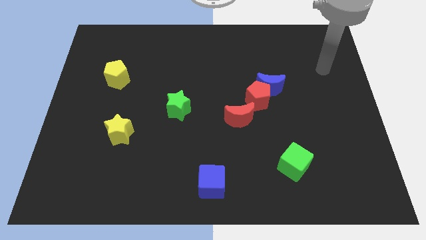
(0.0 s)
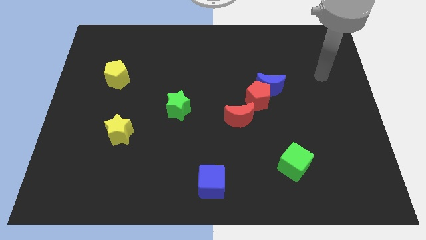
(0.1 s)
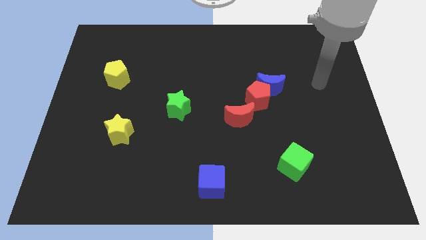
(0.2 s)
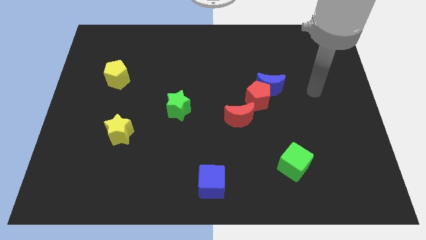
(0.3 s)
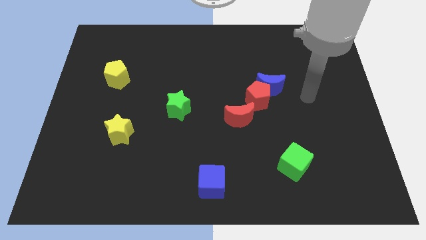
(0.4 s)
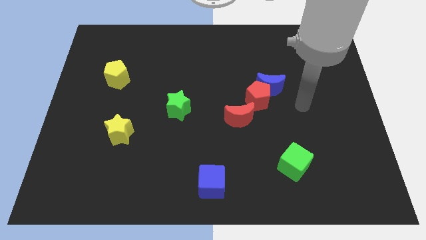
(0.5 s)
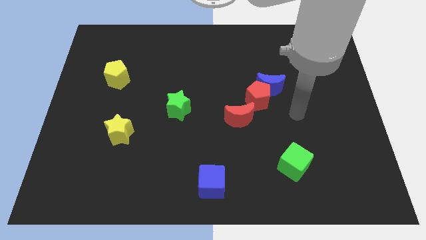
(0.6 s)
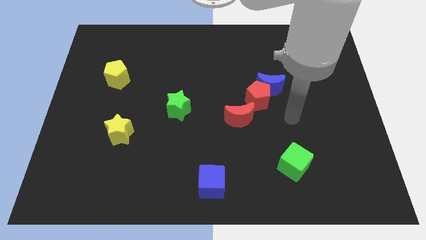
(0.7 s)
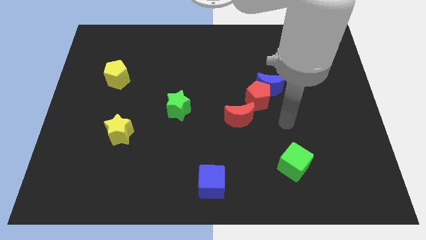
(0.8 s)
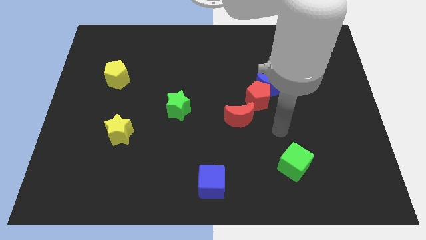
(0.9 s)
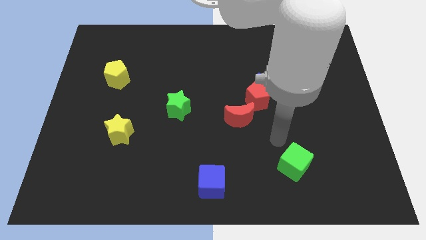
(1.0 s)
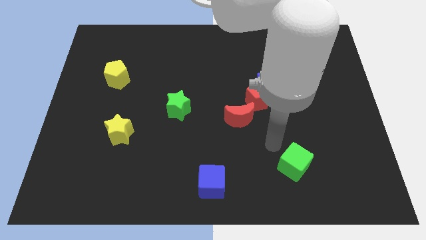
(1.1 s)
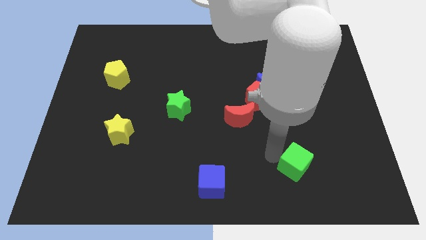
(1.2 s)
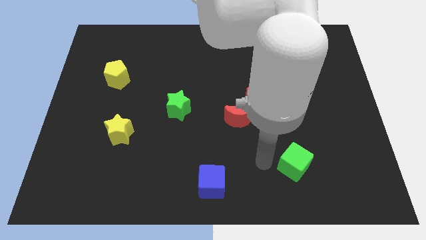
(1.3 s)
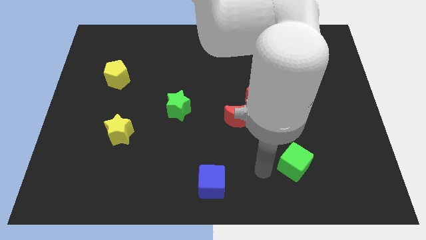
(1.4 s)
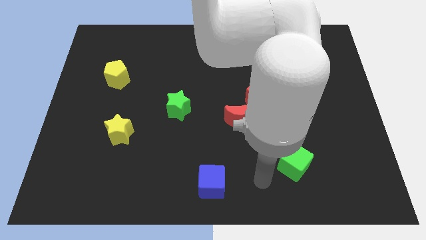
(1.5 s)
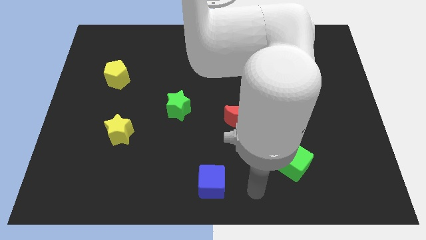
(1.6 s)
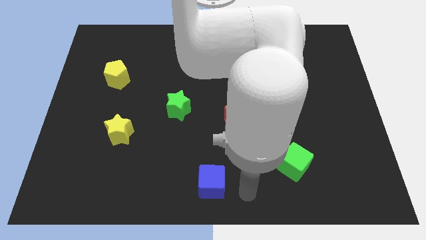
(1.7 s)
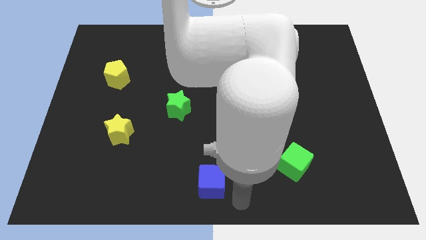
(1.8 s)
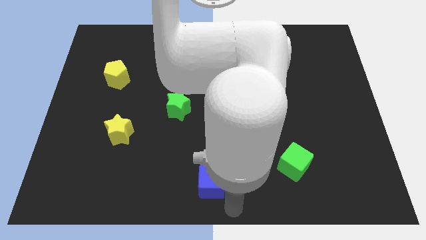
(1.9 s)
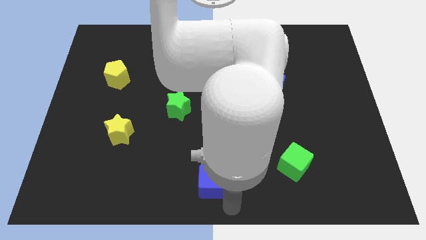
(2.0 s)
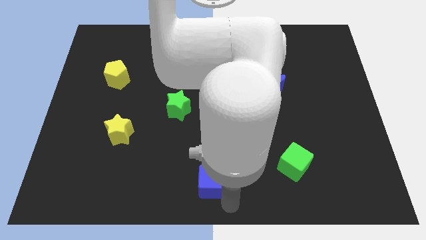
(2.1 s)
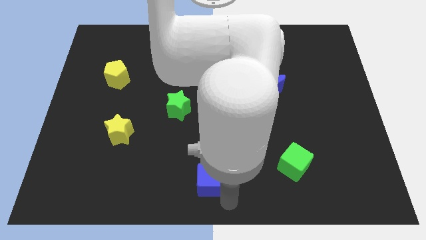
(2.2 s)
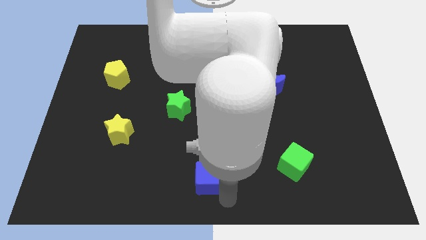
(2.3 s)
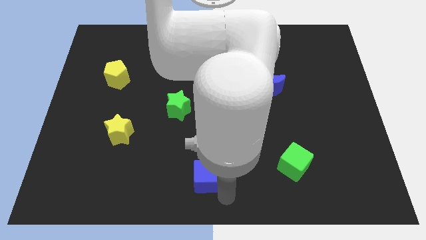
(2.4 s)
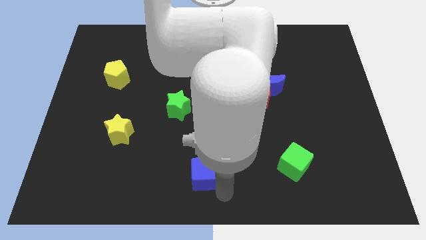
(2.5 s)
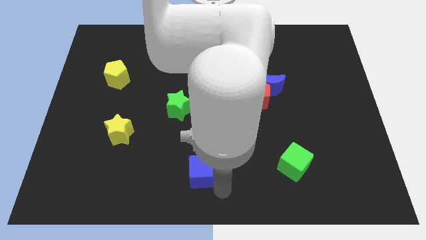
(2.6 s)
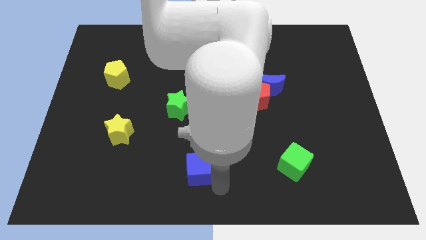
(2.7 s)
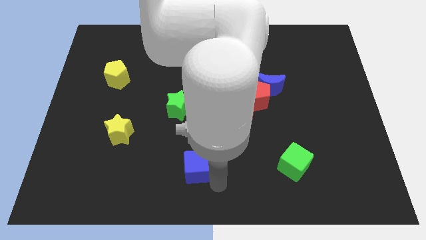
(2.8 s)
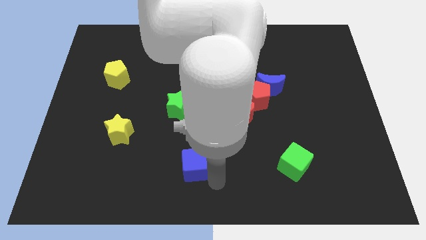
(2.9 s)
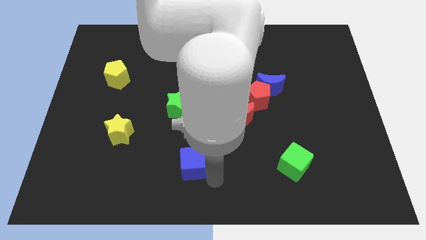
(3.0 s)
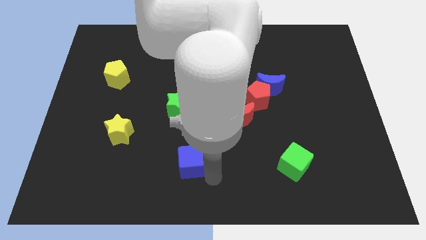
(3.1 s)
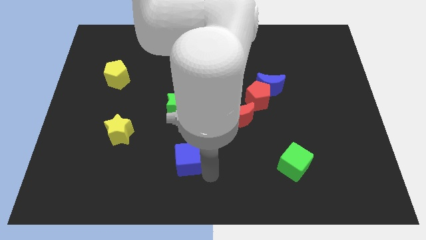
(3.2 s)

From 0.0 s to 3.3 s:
push the blue cube up and to the left a little

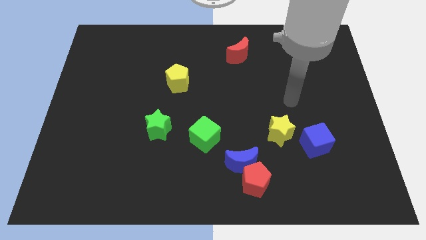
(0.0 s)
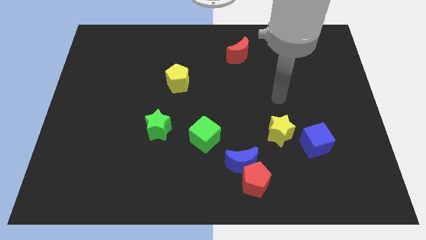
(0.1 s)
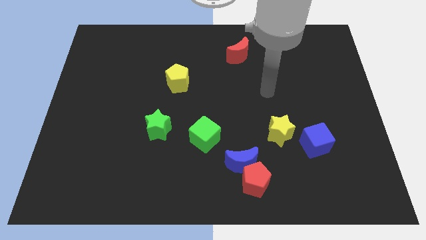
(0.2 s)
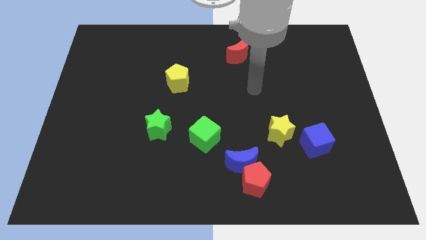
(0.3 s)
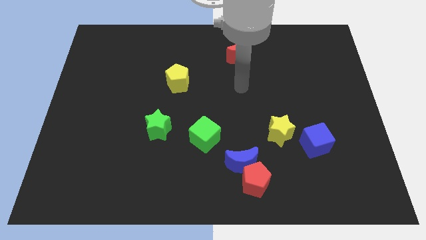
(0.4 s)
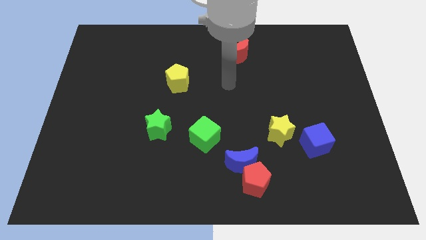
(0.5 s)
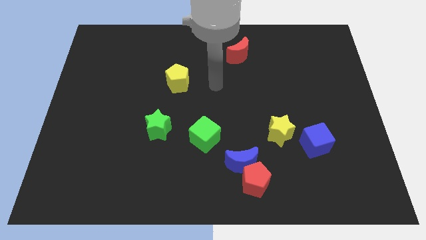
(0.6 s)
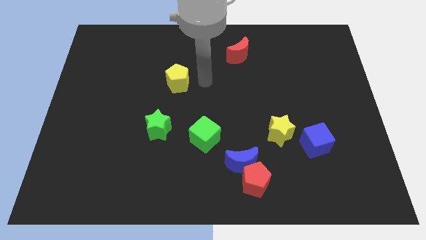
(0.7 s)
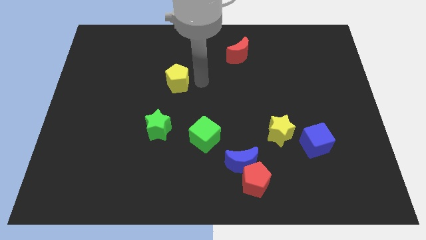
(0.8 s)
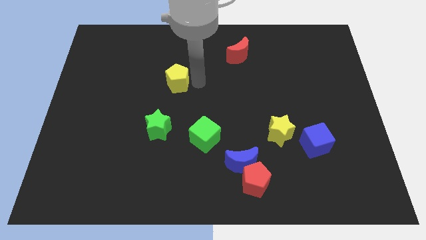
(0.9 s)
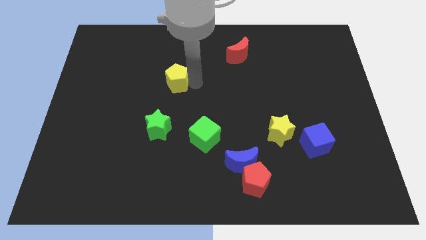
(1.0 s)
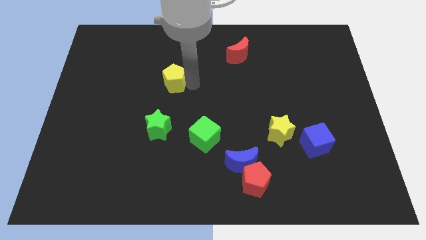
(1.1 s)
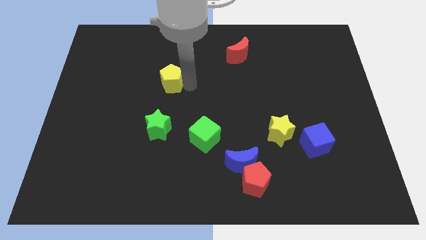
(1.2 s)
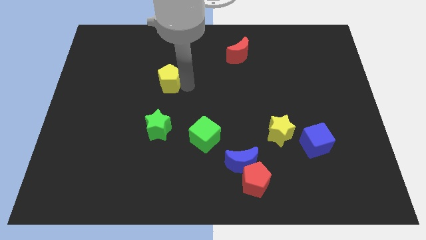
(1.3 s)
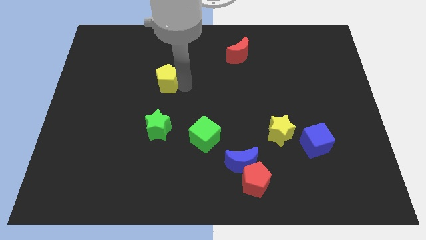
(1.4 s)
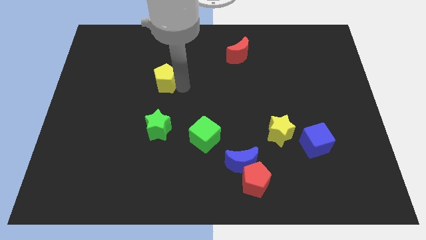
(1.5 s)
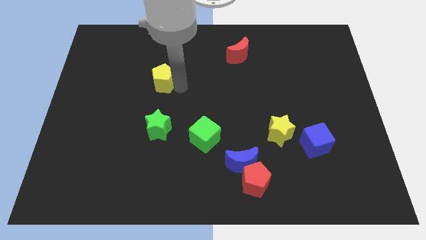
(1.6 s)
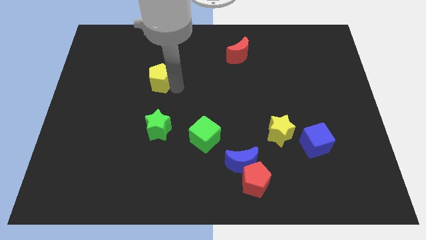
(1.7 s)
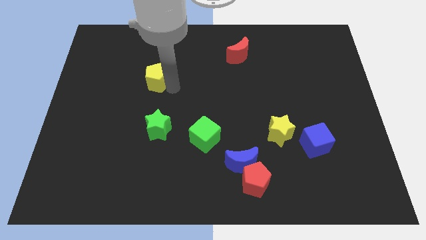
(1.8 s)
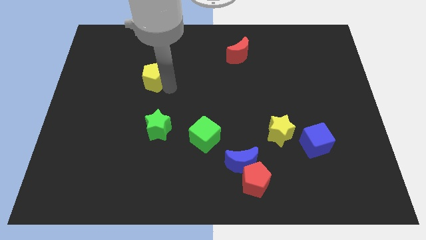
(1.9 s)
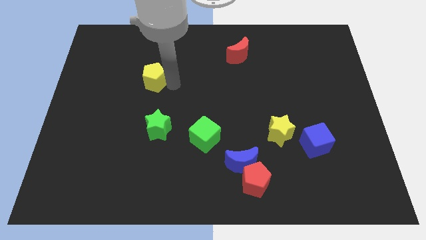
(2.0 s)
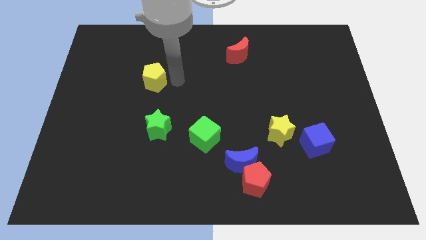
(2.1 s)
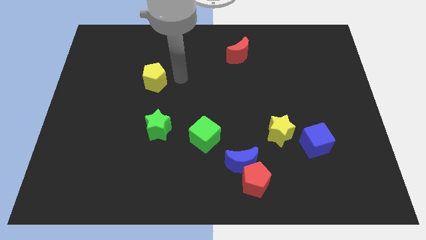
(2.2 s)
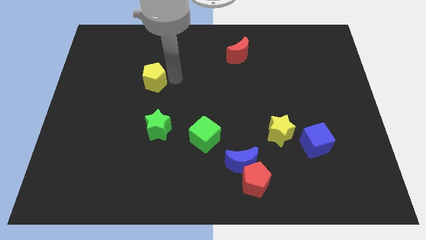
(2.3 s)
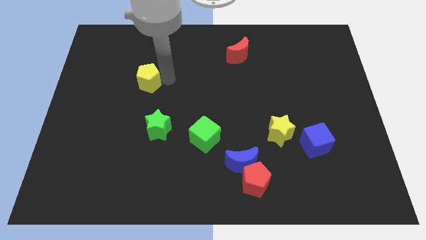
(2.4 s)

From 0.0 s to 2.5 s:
push the yellow pentagon left a little bit

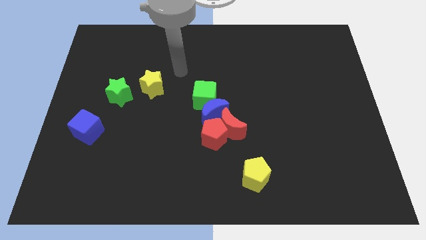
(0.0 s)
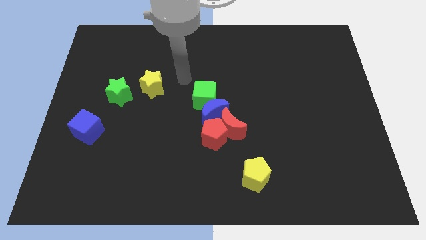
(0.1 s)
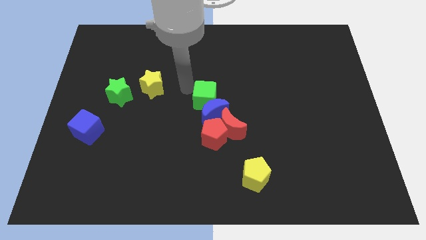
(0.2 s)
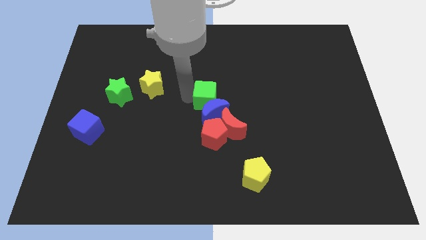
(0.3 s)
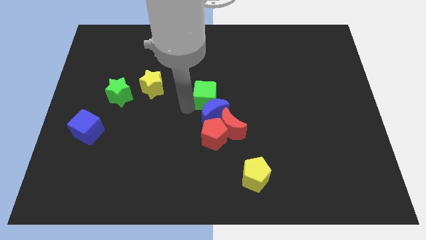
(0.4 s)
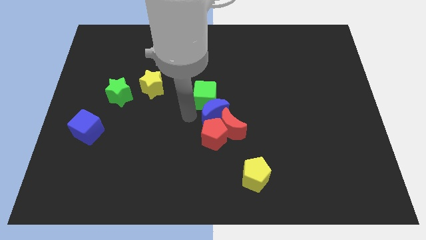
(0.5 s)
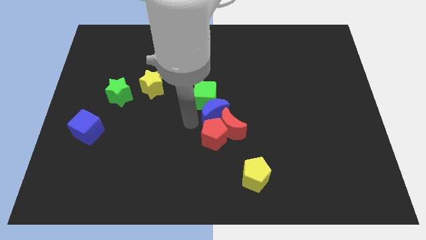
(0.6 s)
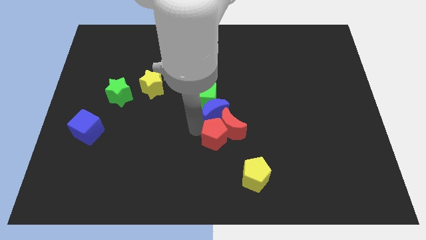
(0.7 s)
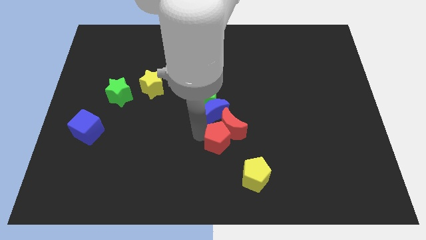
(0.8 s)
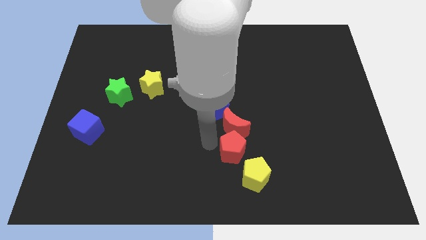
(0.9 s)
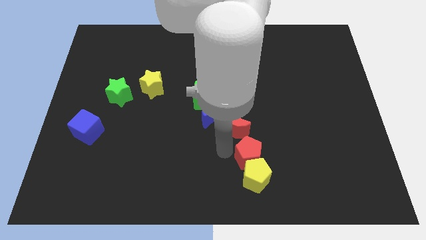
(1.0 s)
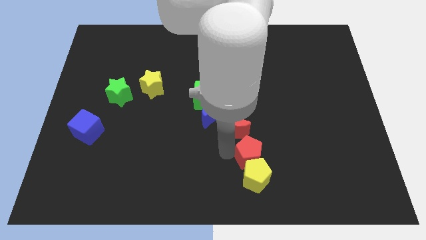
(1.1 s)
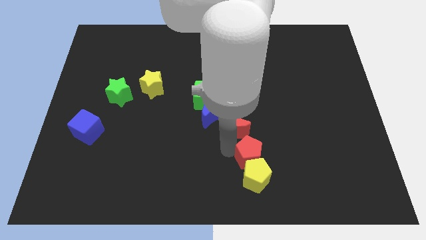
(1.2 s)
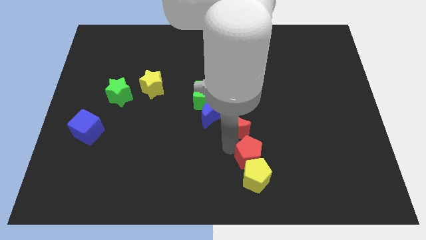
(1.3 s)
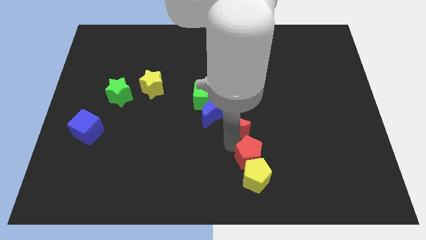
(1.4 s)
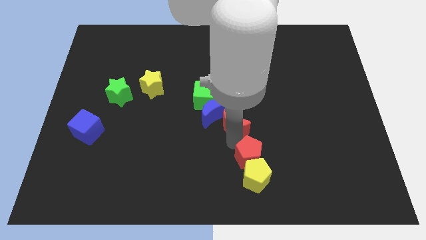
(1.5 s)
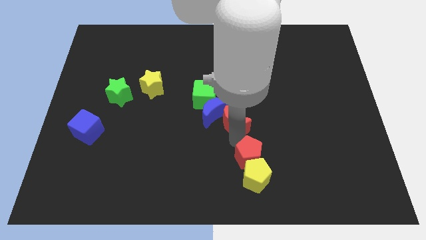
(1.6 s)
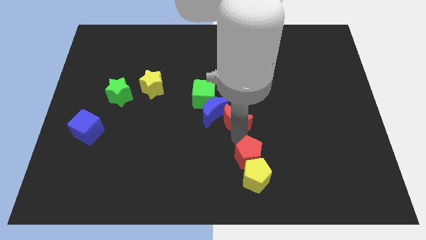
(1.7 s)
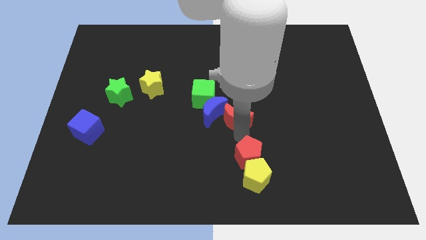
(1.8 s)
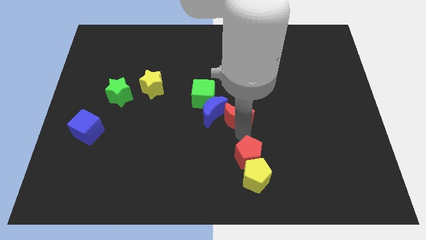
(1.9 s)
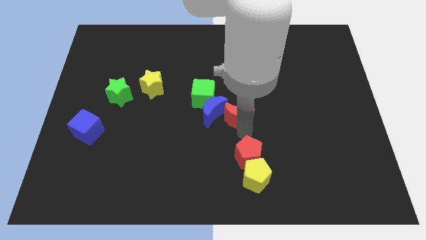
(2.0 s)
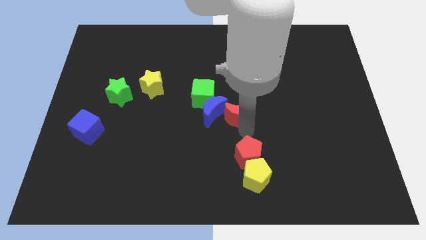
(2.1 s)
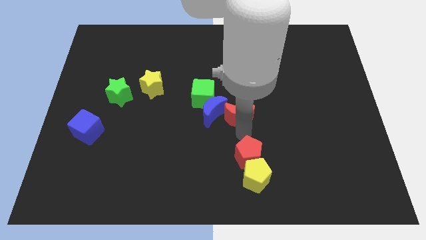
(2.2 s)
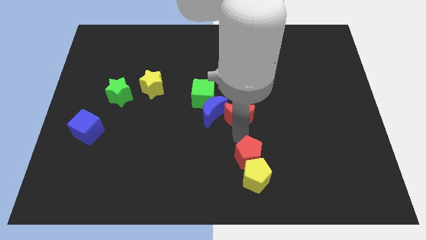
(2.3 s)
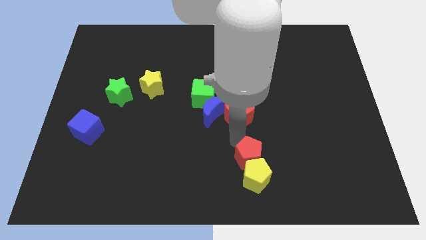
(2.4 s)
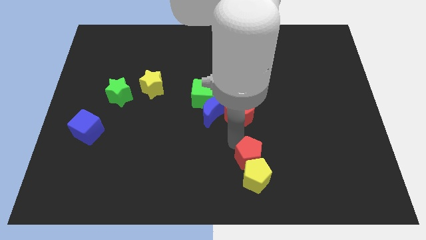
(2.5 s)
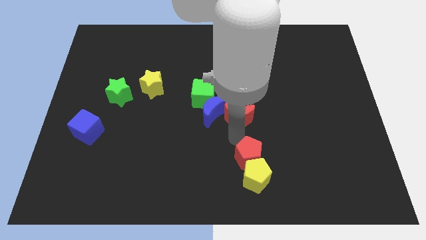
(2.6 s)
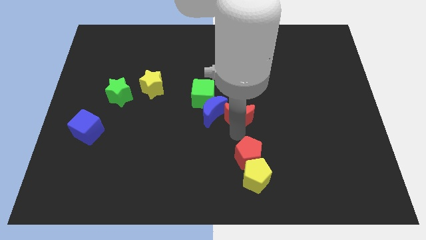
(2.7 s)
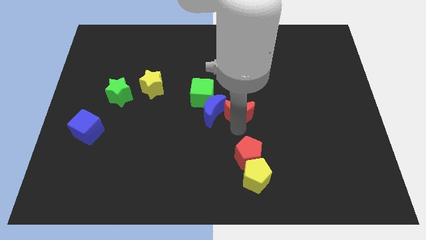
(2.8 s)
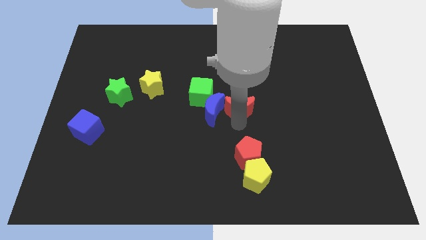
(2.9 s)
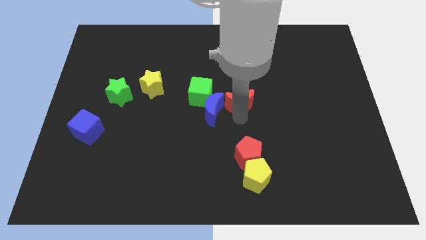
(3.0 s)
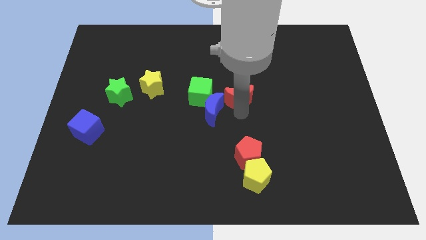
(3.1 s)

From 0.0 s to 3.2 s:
slide the red moon a little bit up
